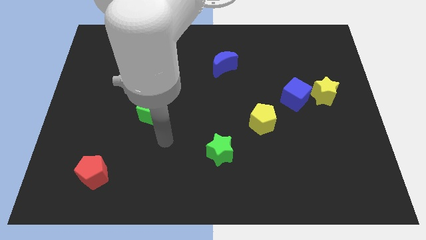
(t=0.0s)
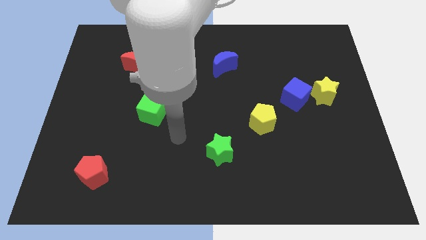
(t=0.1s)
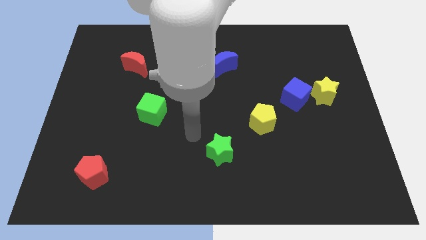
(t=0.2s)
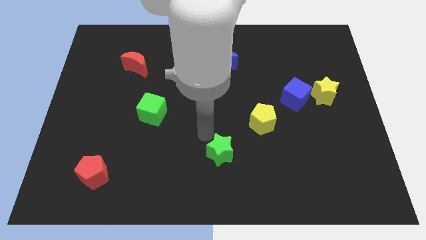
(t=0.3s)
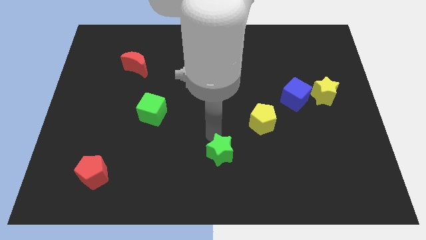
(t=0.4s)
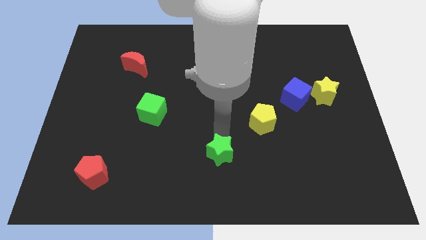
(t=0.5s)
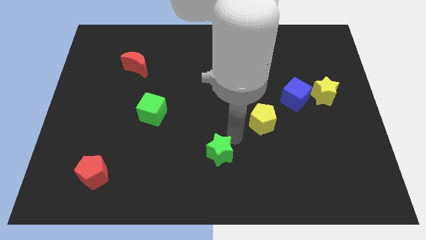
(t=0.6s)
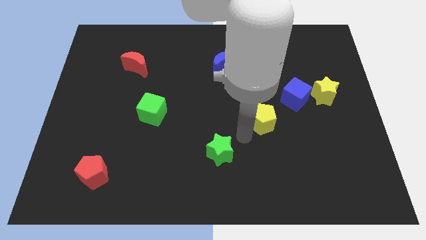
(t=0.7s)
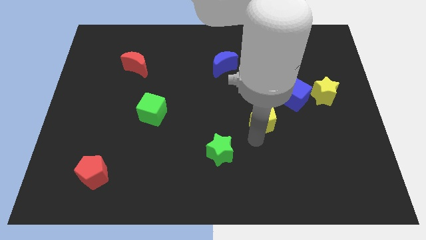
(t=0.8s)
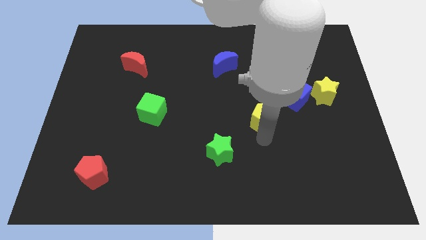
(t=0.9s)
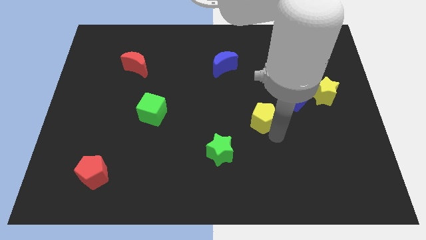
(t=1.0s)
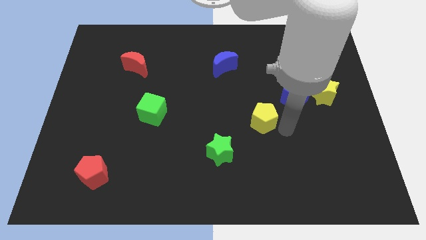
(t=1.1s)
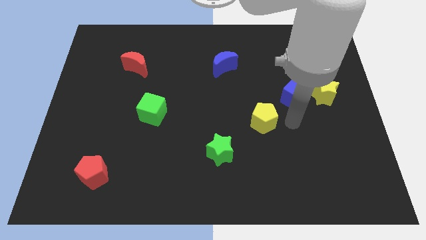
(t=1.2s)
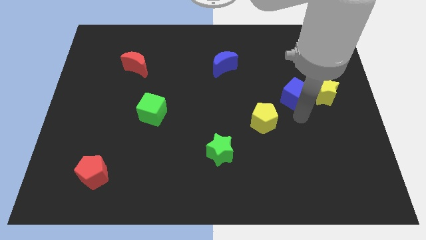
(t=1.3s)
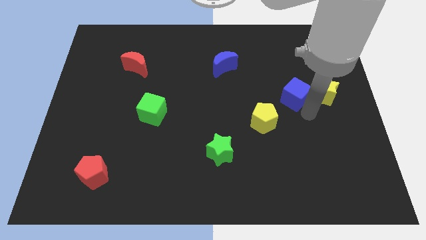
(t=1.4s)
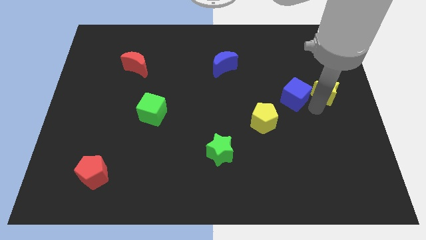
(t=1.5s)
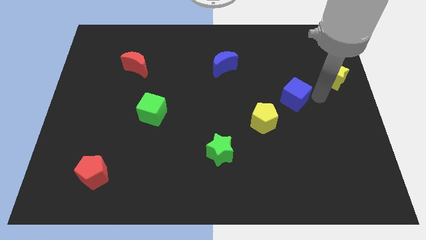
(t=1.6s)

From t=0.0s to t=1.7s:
separate the blue cube from the yellow star

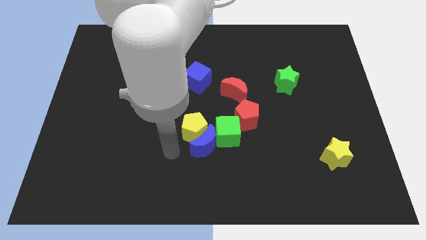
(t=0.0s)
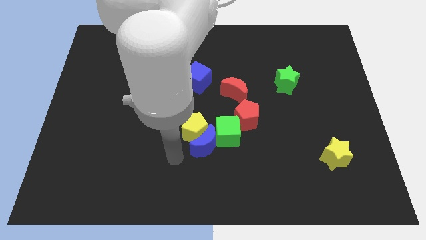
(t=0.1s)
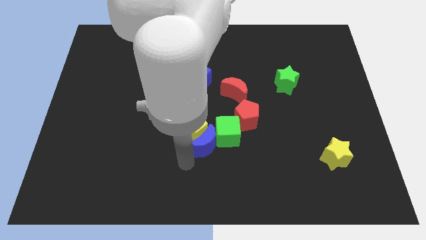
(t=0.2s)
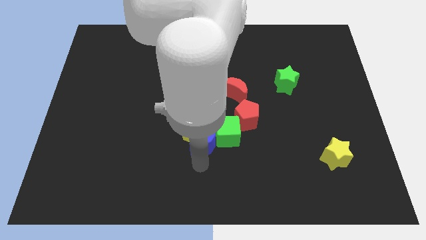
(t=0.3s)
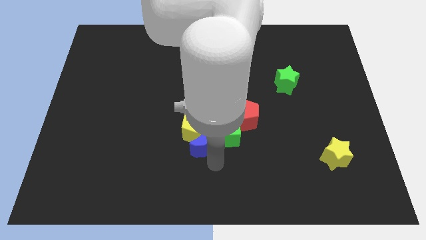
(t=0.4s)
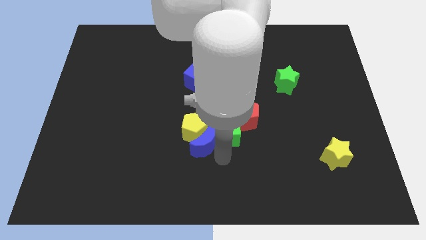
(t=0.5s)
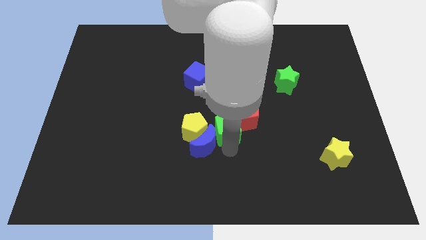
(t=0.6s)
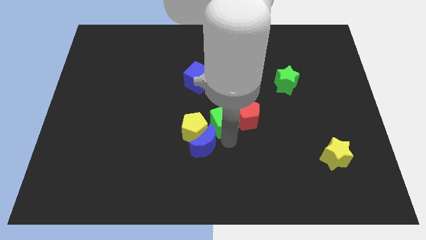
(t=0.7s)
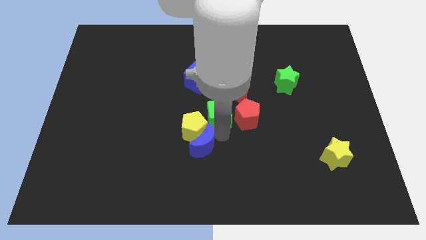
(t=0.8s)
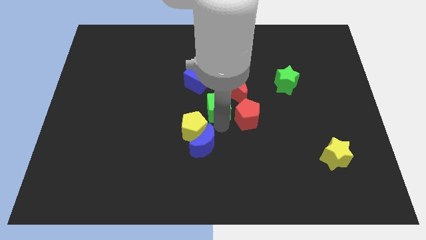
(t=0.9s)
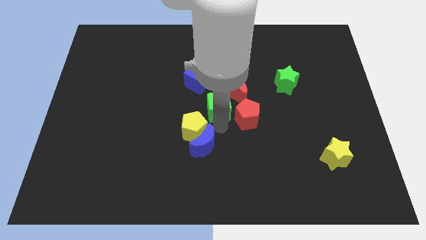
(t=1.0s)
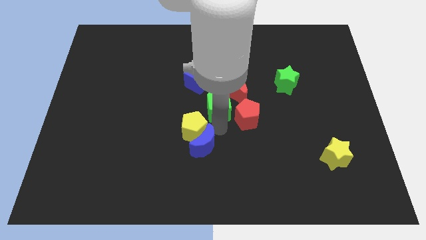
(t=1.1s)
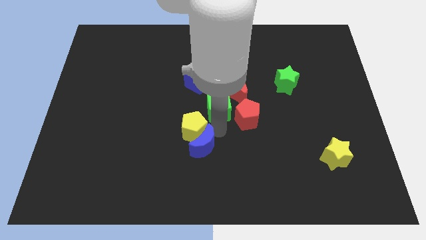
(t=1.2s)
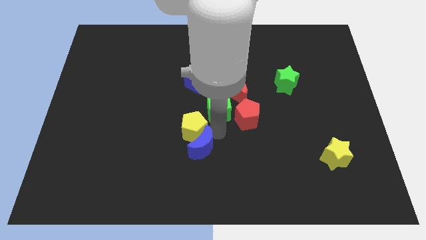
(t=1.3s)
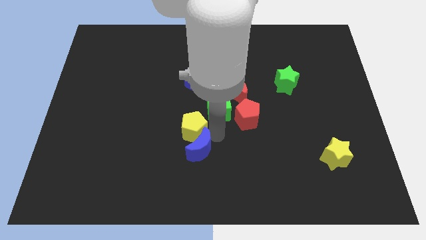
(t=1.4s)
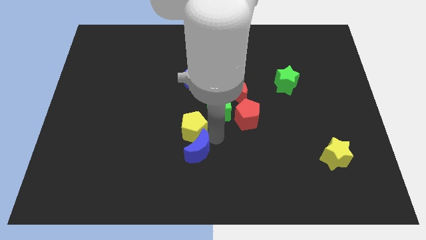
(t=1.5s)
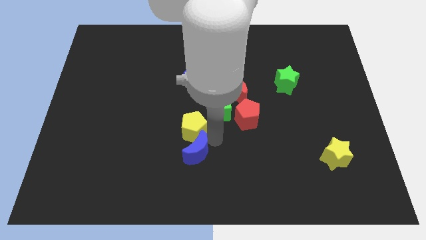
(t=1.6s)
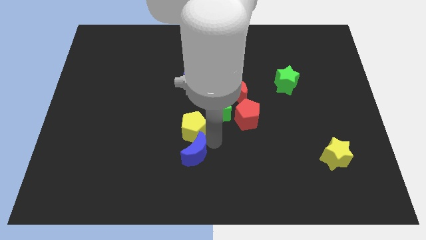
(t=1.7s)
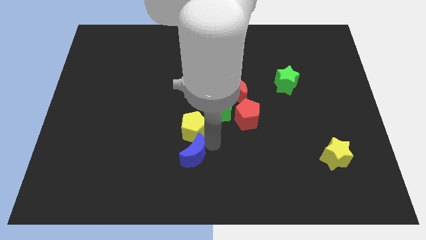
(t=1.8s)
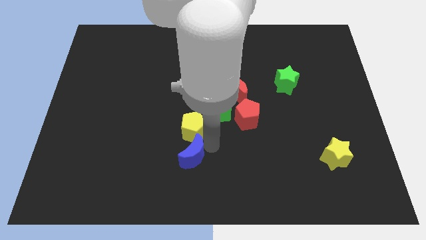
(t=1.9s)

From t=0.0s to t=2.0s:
separate the blue moon from the yellow pentagon and green cube

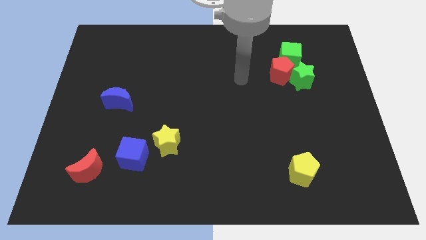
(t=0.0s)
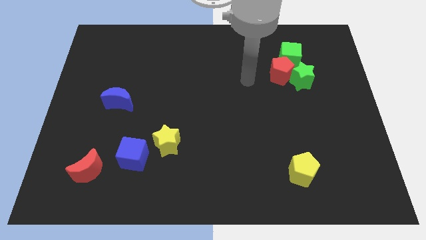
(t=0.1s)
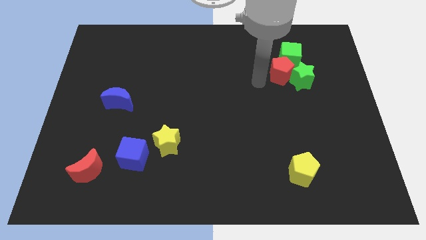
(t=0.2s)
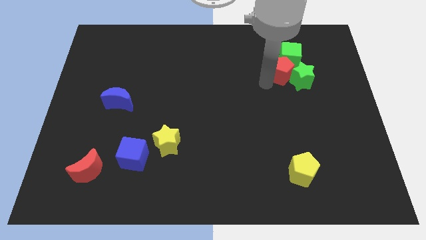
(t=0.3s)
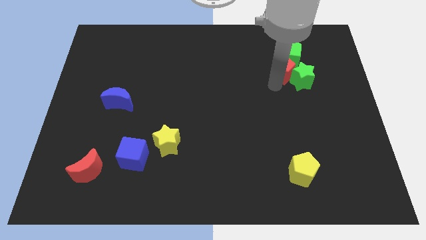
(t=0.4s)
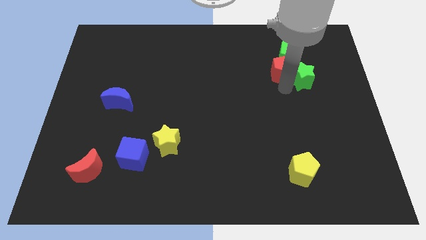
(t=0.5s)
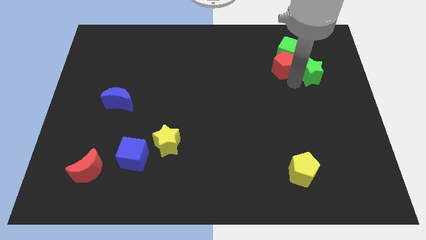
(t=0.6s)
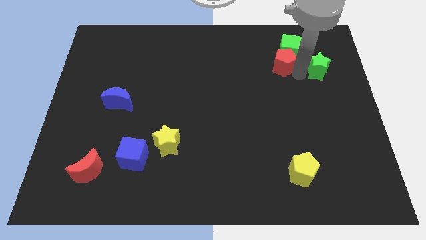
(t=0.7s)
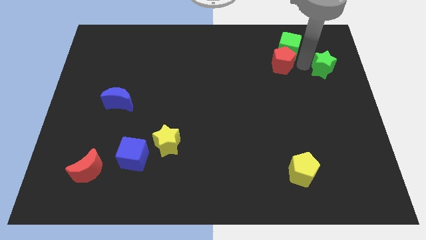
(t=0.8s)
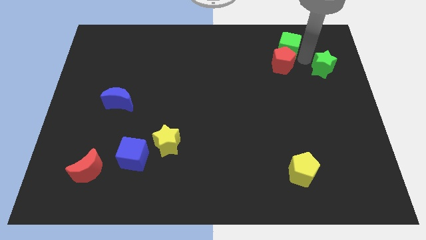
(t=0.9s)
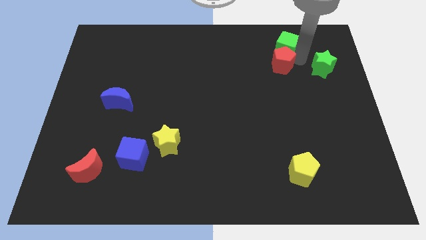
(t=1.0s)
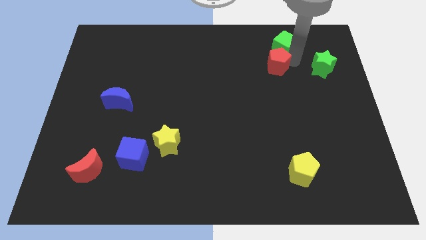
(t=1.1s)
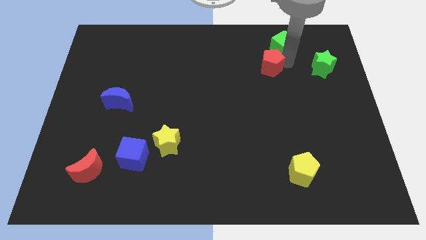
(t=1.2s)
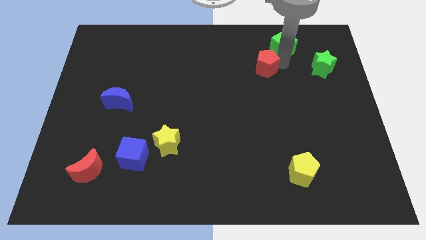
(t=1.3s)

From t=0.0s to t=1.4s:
pull the red pentagon apart from the green star and green cube

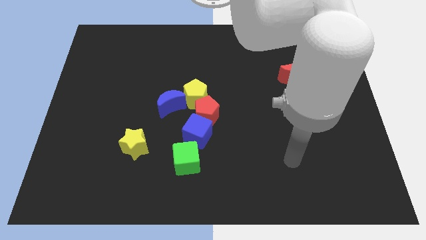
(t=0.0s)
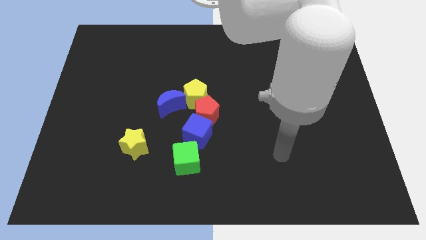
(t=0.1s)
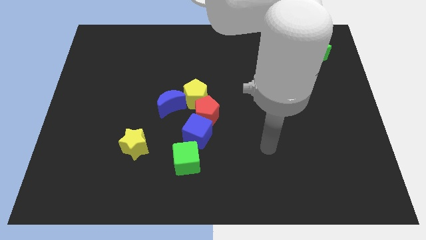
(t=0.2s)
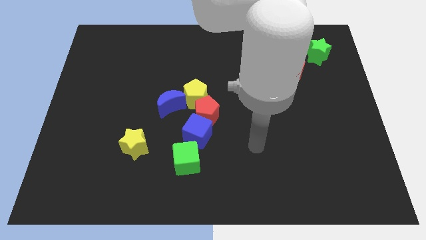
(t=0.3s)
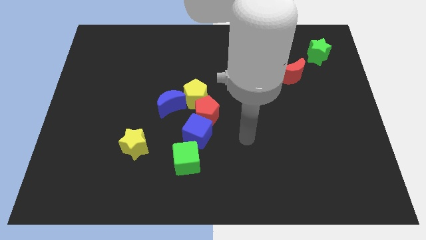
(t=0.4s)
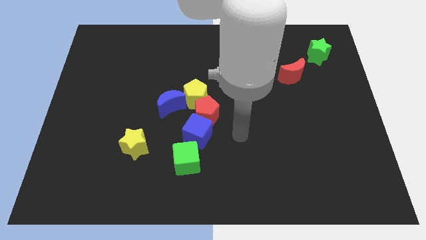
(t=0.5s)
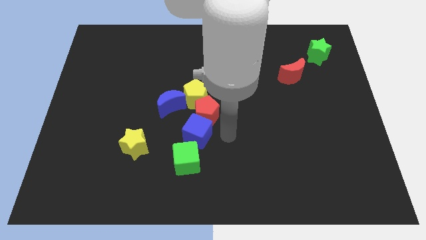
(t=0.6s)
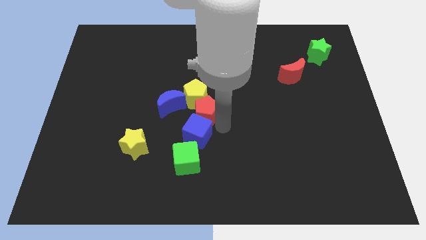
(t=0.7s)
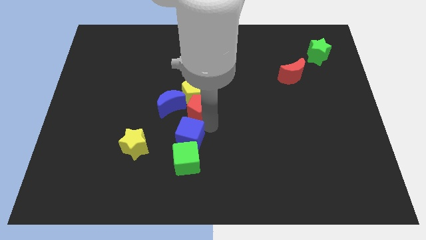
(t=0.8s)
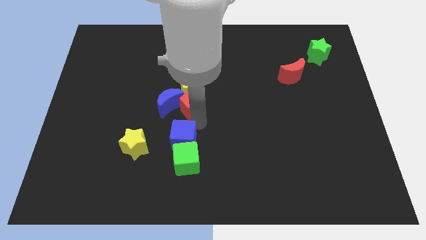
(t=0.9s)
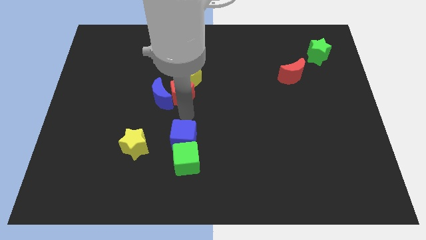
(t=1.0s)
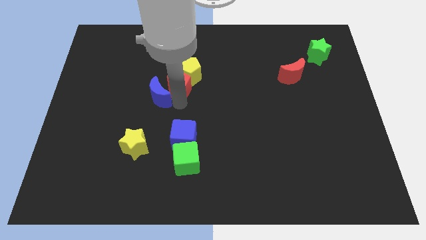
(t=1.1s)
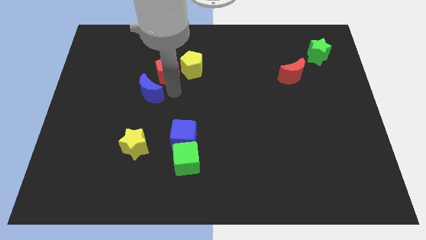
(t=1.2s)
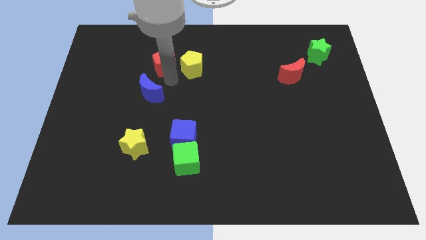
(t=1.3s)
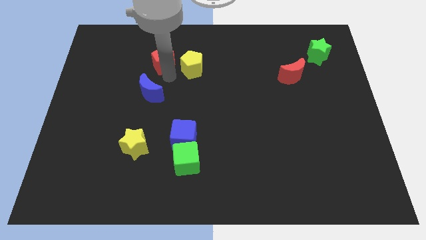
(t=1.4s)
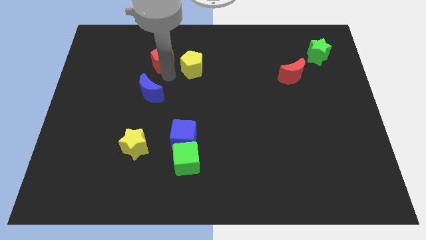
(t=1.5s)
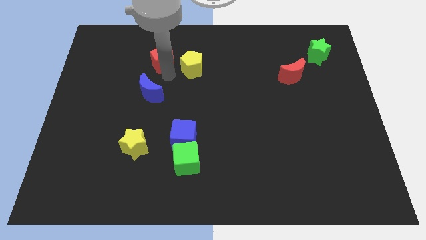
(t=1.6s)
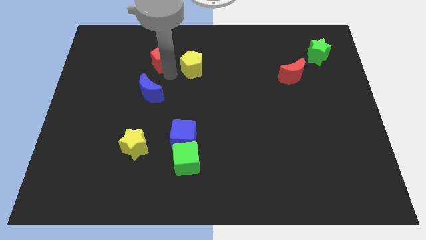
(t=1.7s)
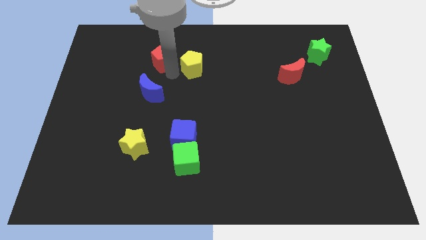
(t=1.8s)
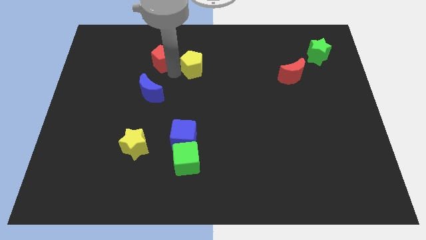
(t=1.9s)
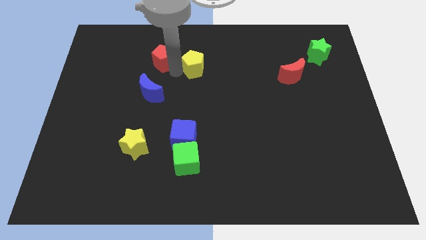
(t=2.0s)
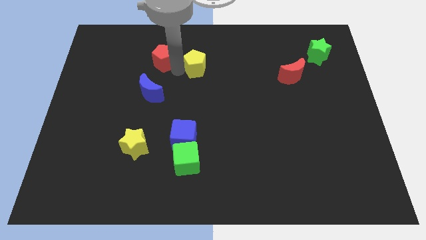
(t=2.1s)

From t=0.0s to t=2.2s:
move the yellow pentagon away from the red pentagon and blue moon

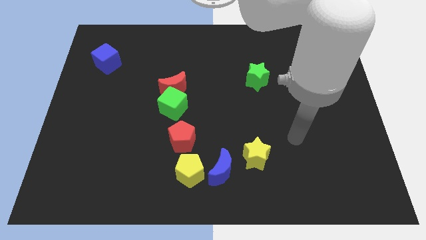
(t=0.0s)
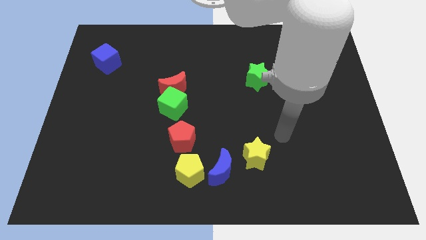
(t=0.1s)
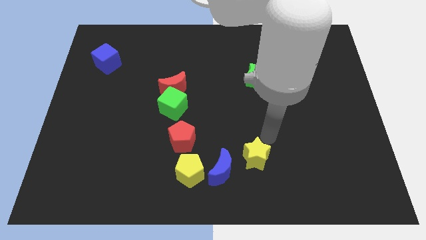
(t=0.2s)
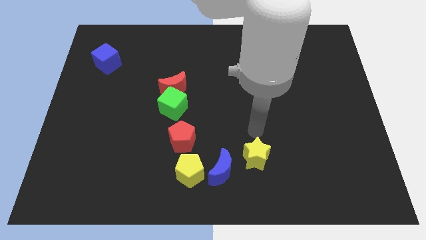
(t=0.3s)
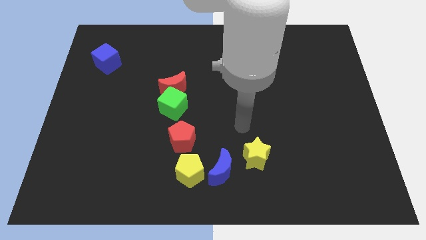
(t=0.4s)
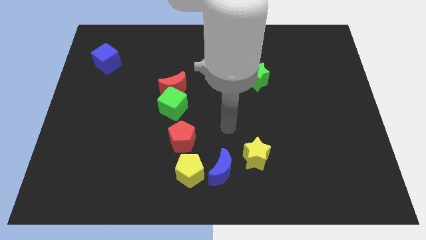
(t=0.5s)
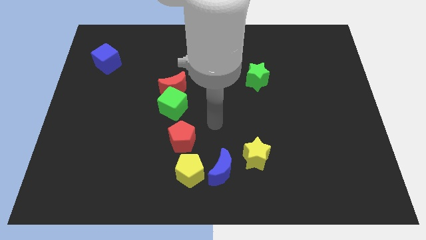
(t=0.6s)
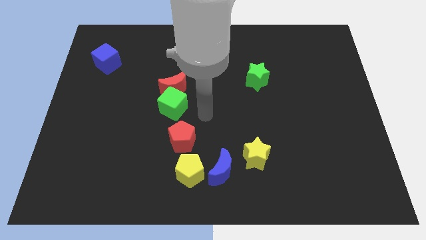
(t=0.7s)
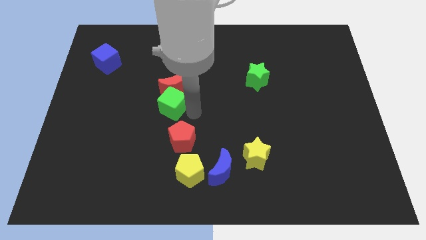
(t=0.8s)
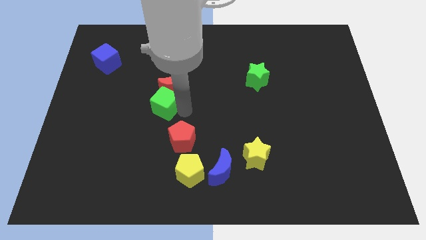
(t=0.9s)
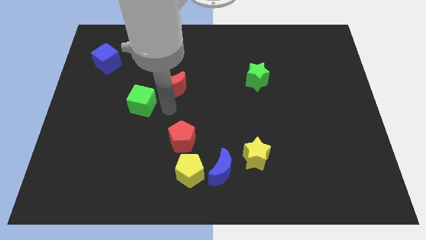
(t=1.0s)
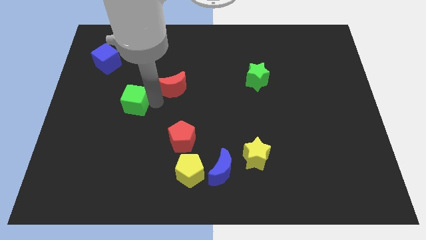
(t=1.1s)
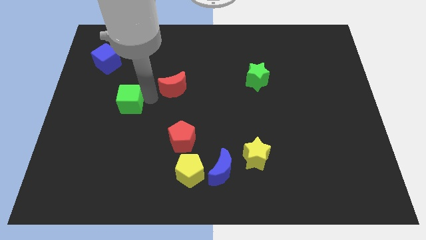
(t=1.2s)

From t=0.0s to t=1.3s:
move the red moon away from the green cube

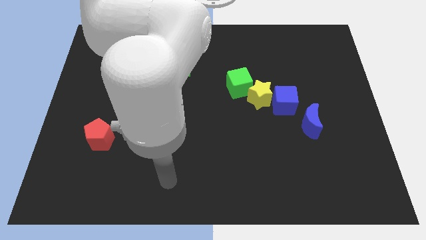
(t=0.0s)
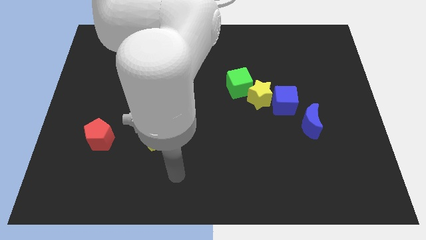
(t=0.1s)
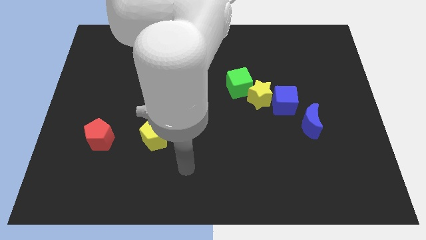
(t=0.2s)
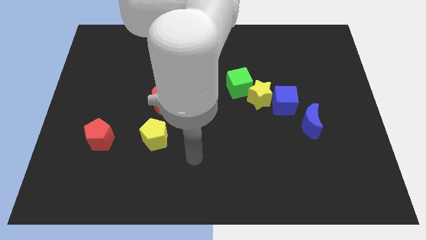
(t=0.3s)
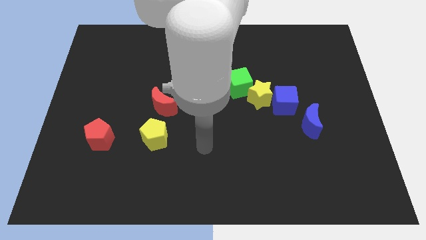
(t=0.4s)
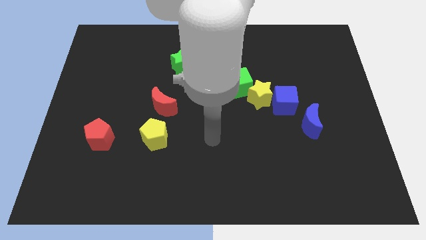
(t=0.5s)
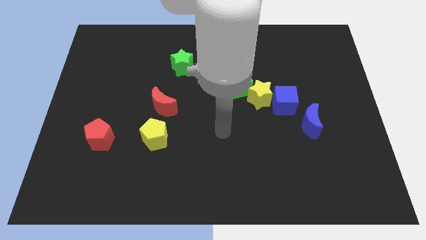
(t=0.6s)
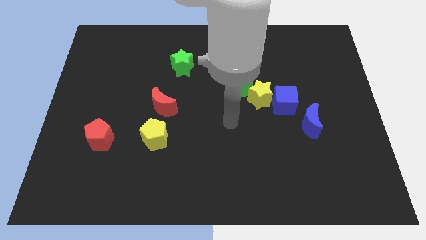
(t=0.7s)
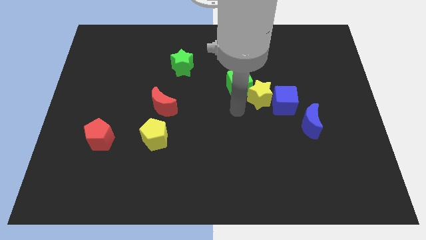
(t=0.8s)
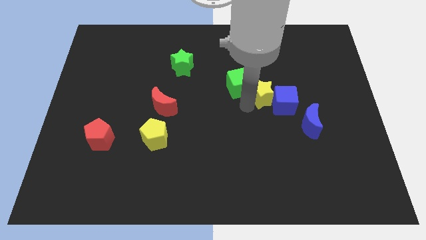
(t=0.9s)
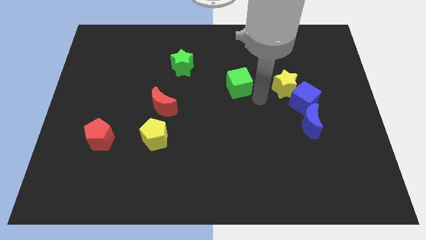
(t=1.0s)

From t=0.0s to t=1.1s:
move the green cube away from the yellow star
